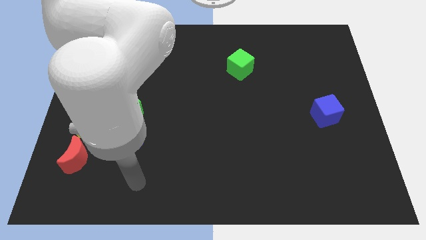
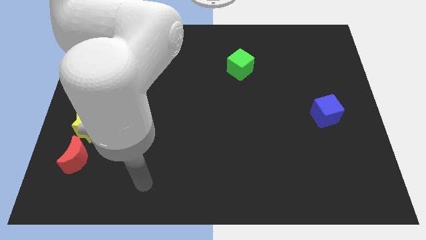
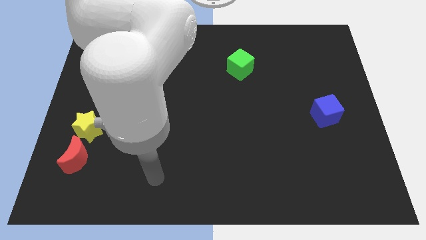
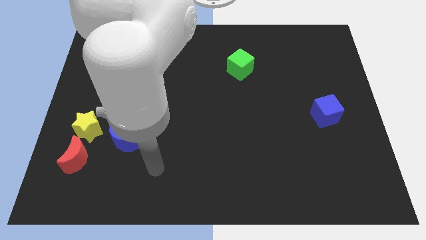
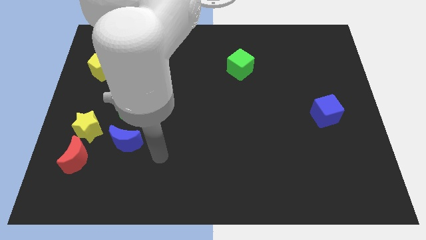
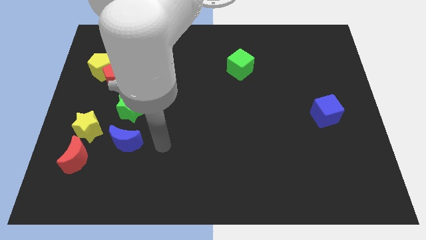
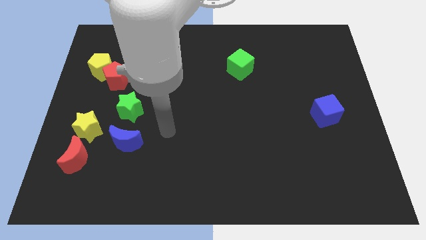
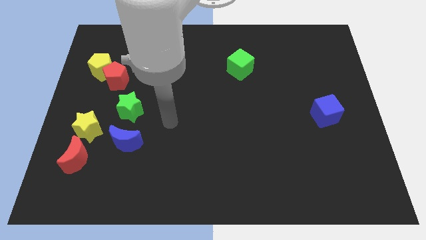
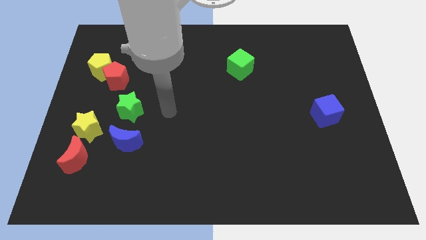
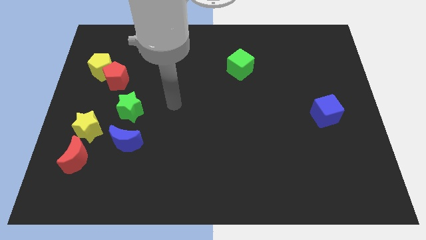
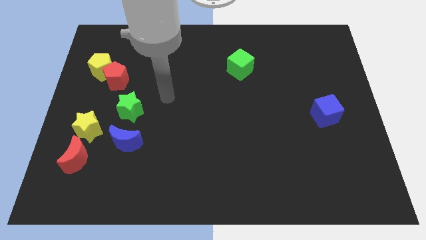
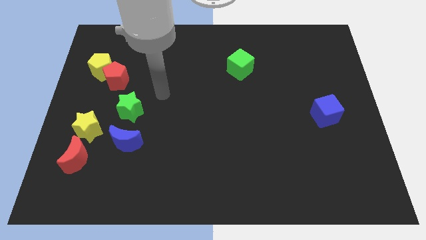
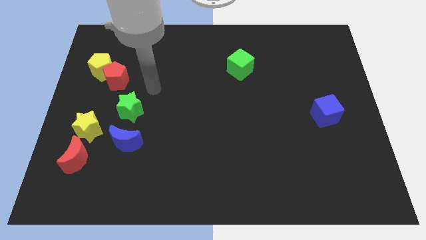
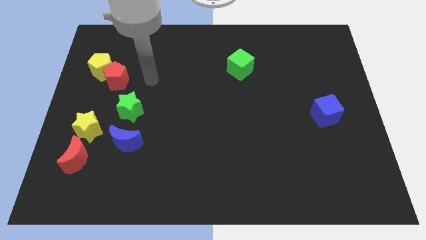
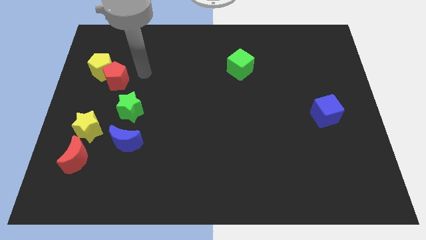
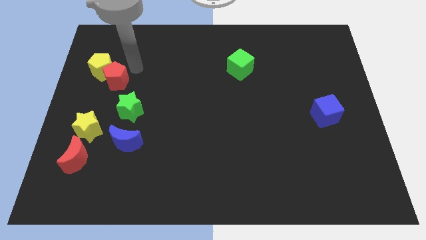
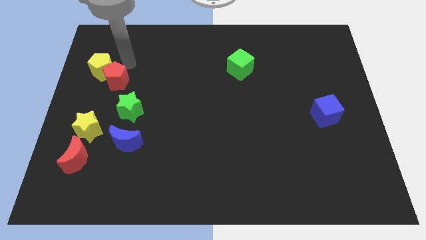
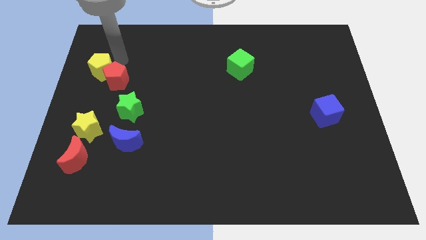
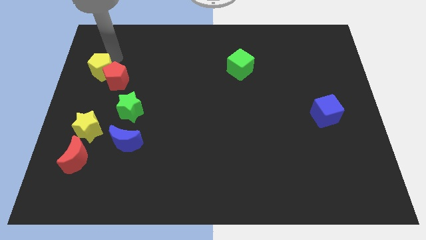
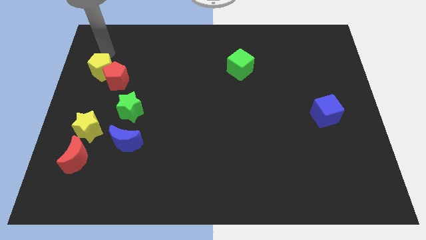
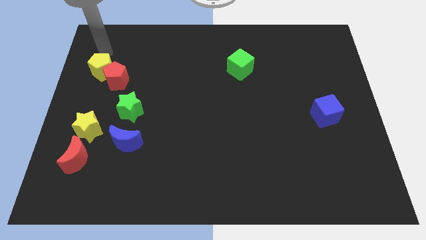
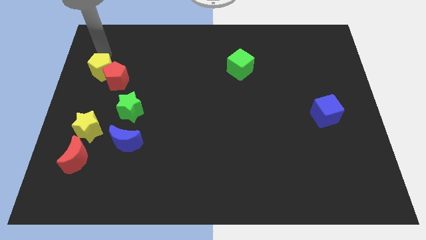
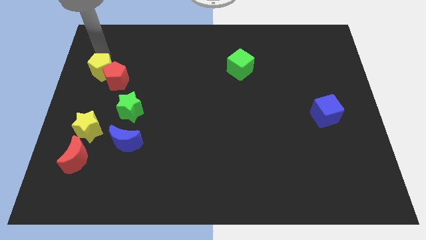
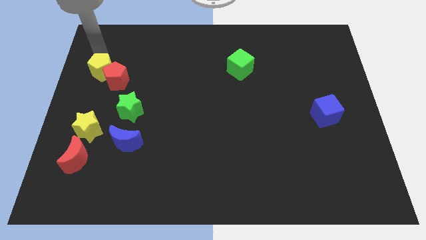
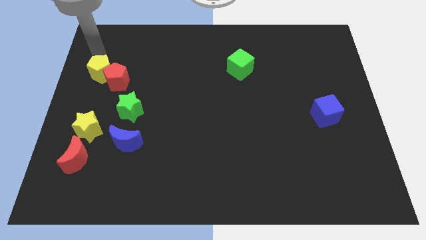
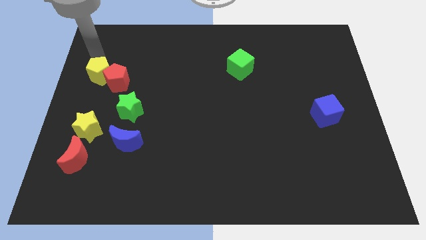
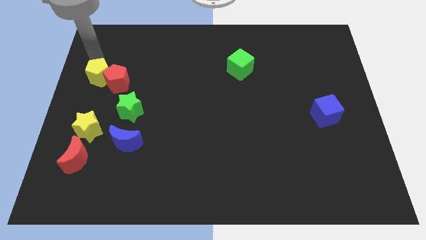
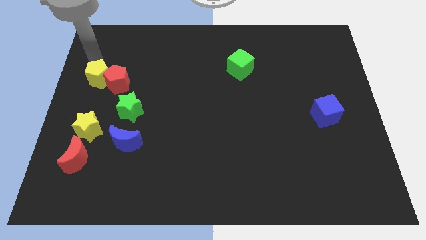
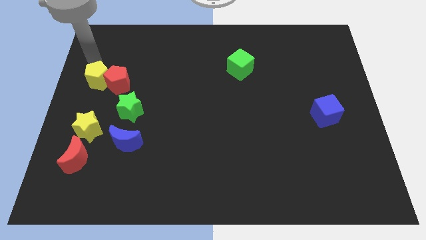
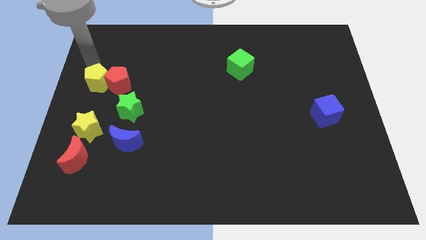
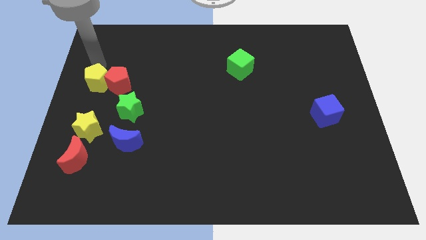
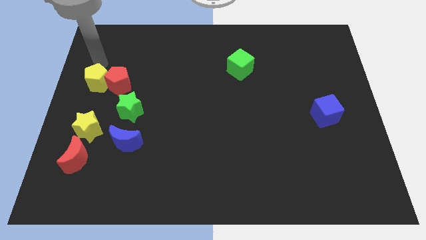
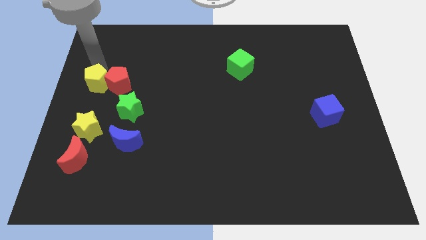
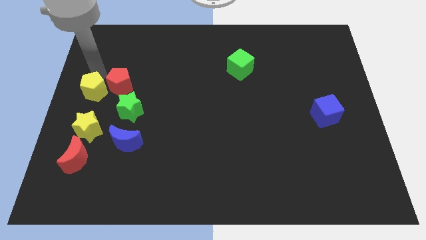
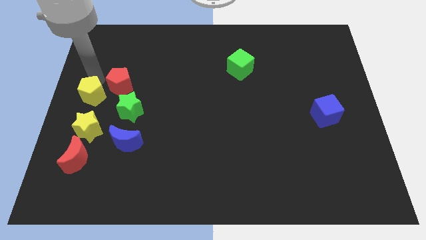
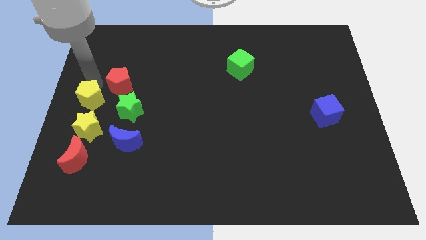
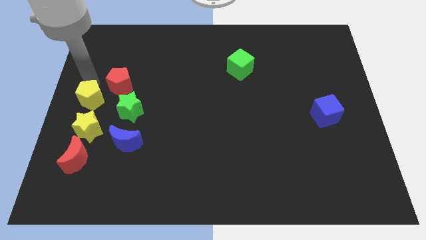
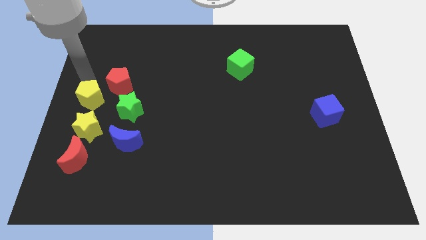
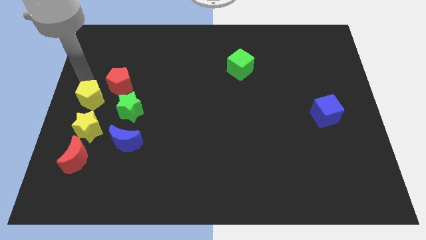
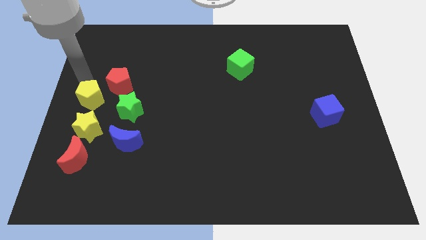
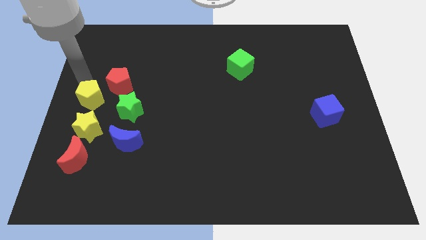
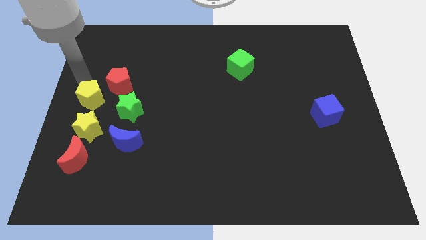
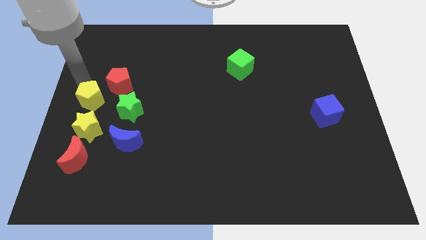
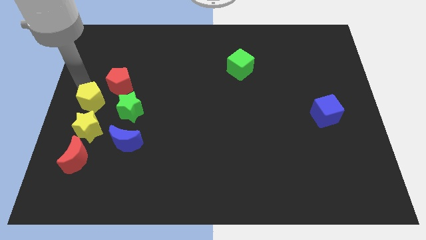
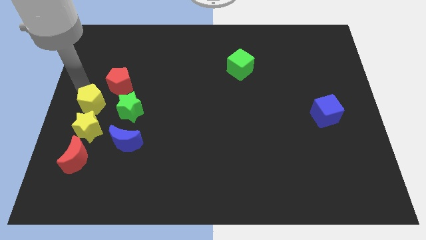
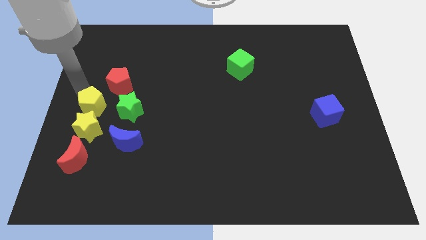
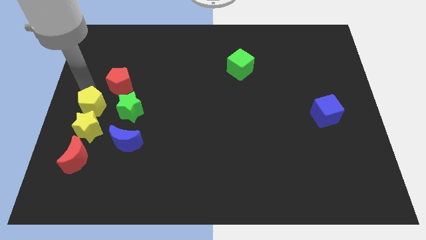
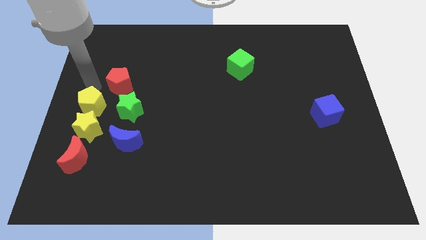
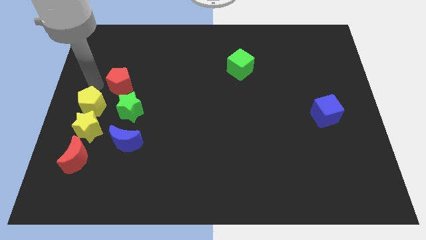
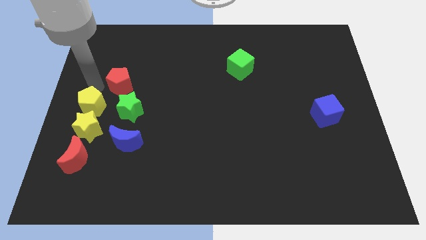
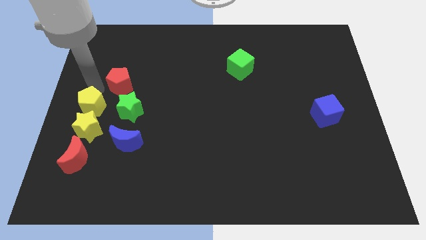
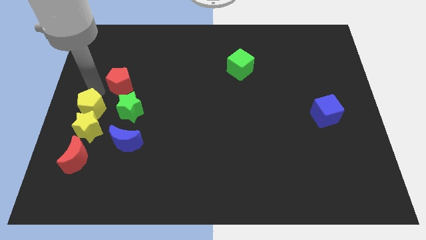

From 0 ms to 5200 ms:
slide the yellow pentagon to the yellow star

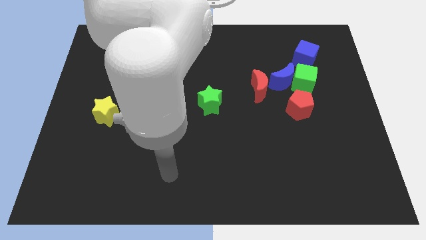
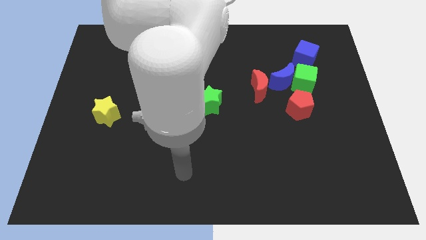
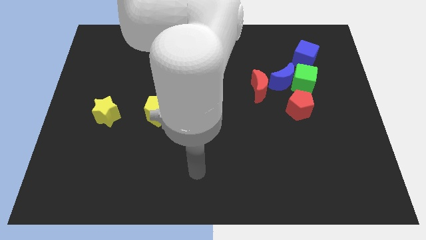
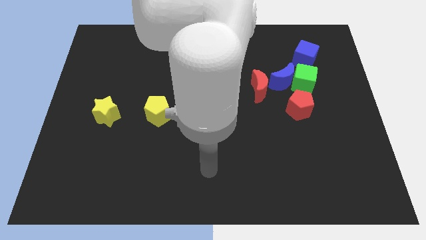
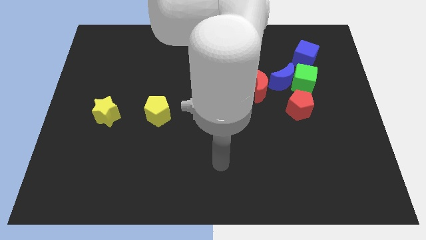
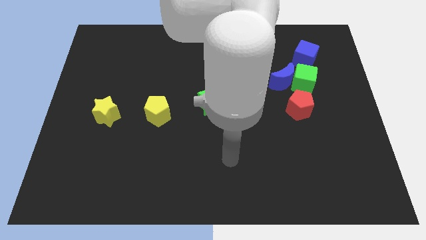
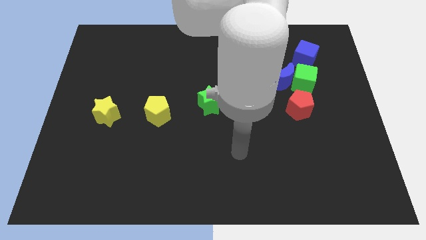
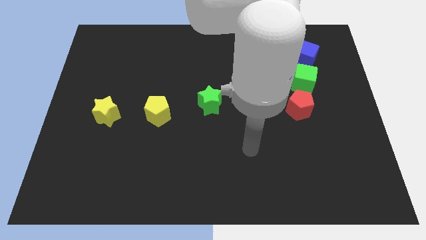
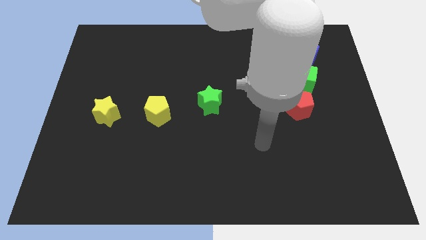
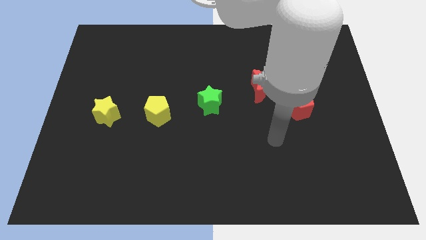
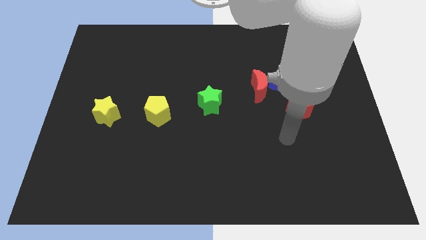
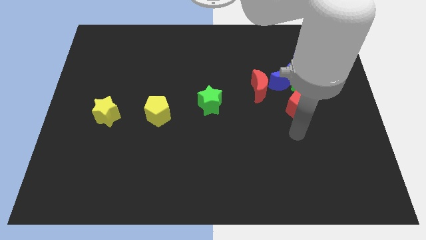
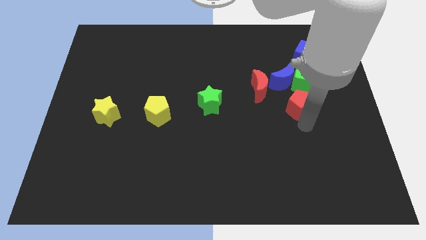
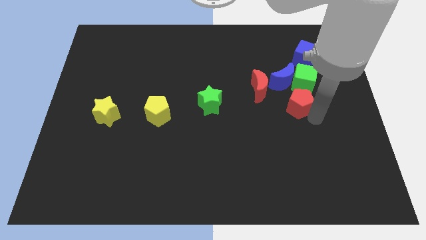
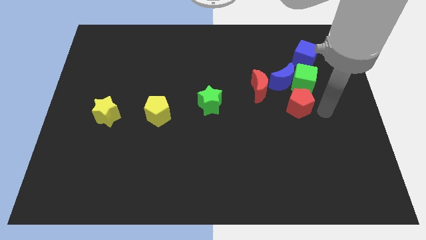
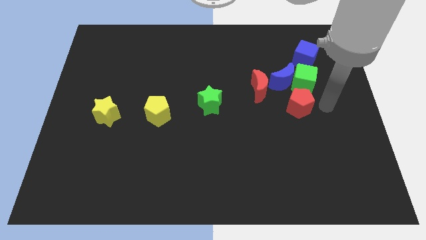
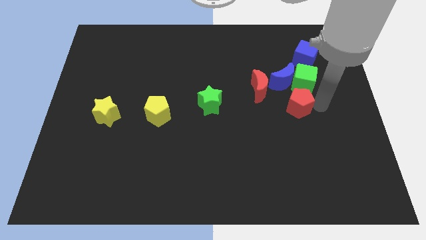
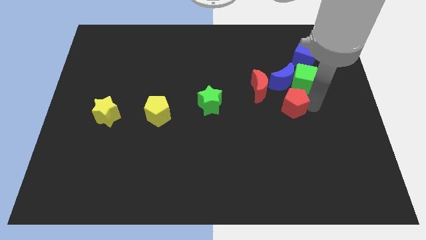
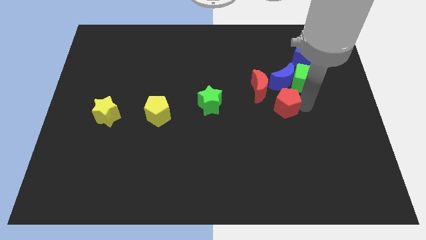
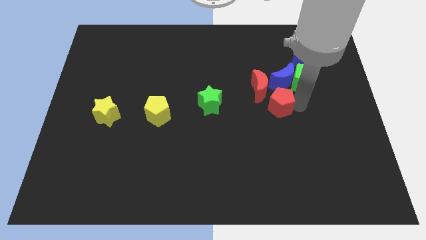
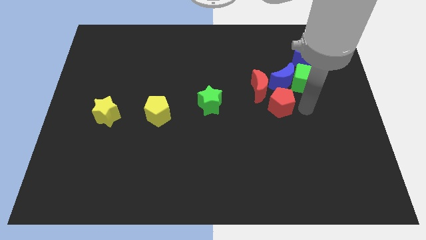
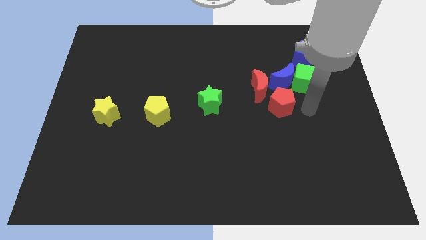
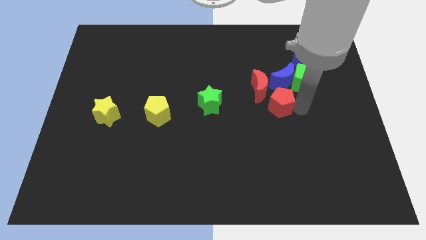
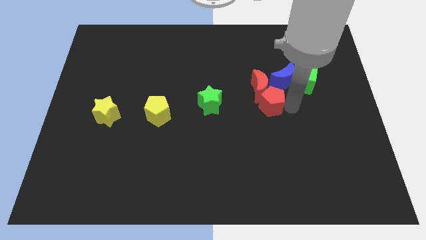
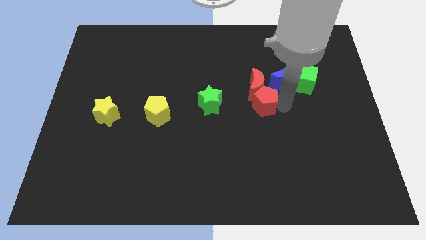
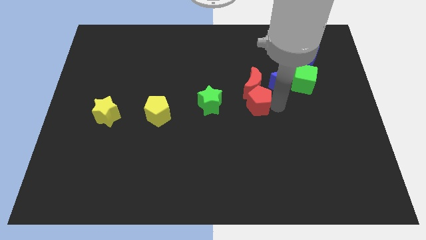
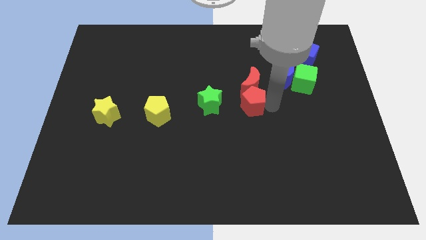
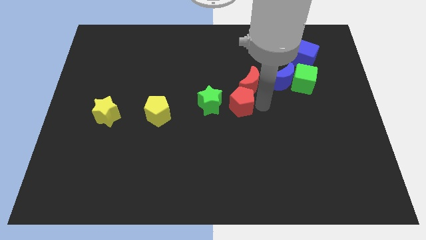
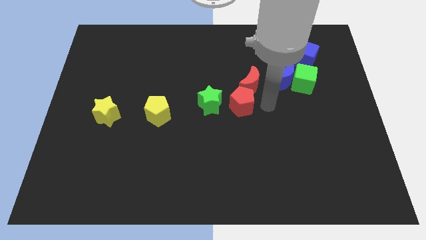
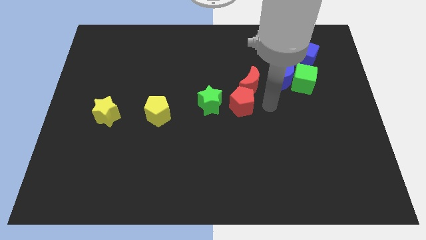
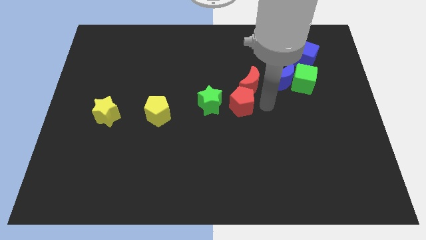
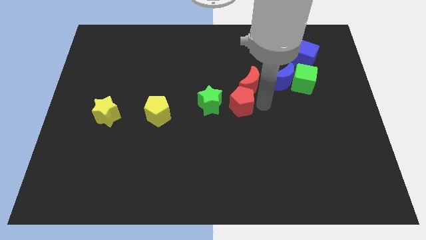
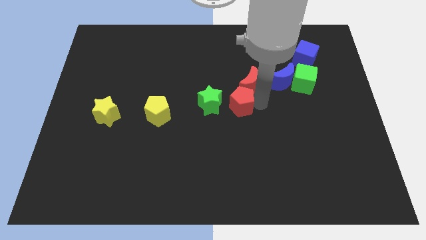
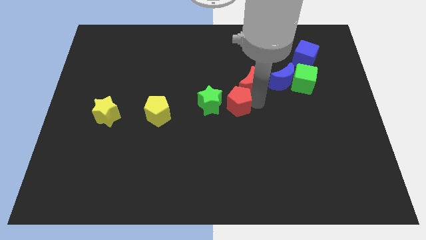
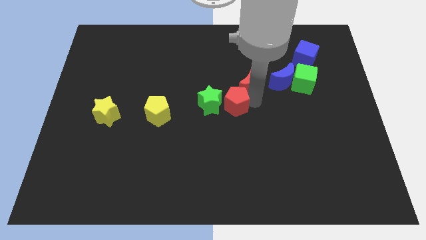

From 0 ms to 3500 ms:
slide the red pentagon to the green star
